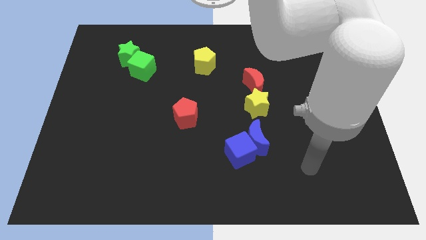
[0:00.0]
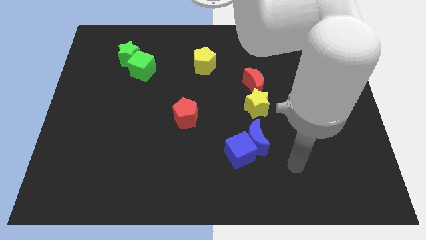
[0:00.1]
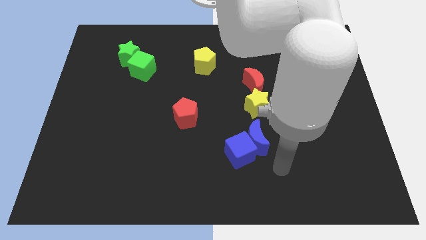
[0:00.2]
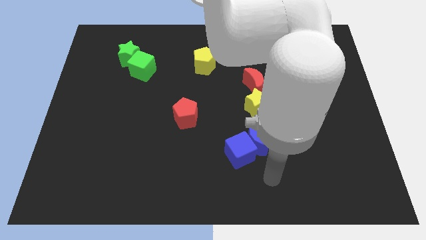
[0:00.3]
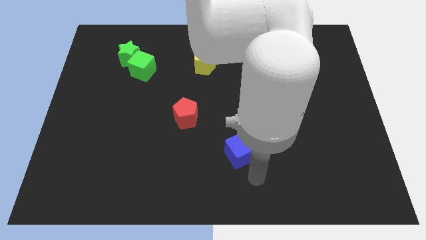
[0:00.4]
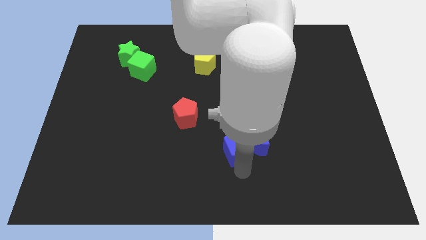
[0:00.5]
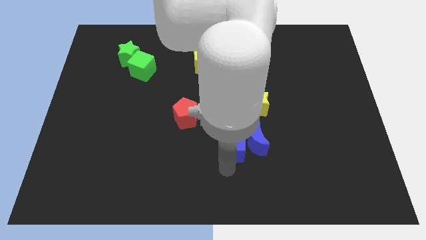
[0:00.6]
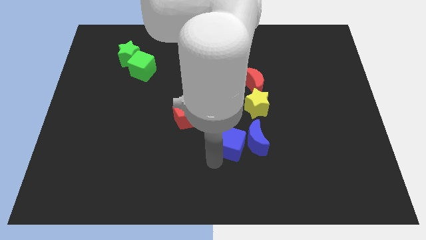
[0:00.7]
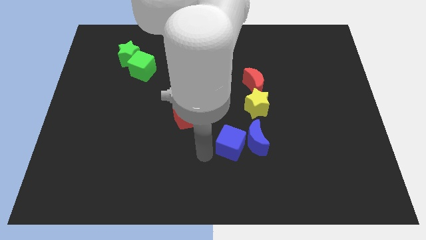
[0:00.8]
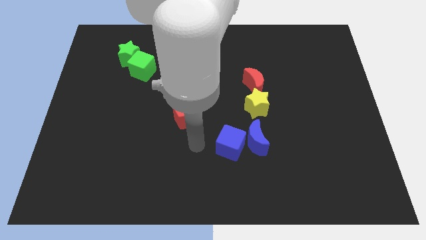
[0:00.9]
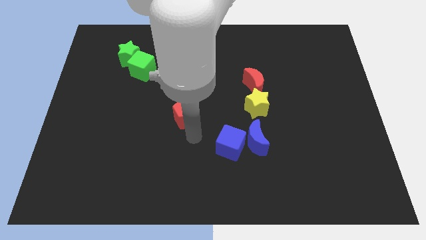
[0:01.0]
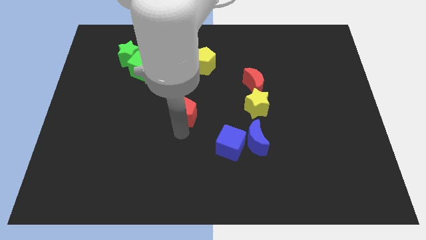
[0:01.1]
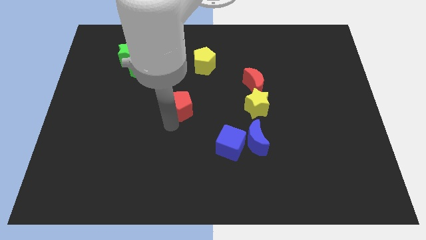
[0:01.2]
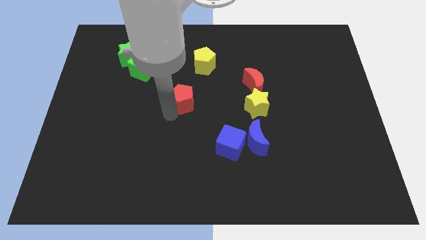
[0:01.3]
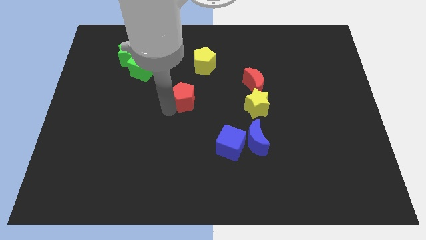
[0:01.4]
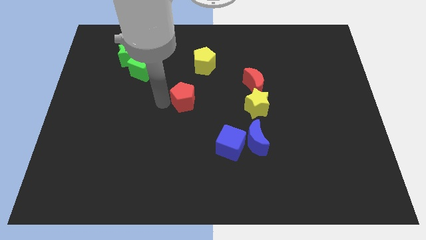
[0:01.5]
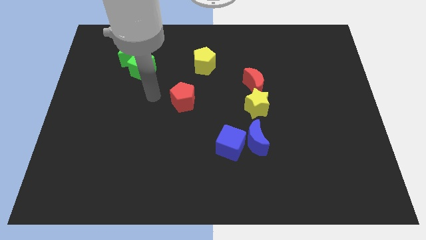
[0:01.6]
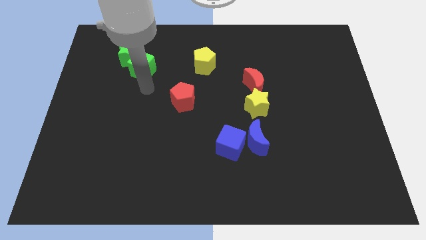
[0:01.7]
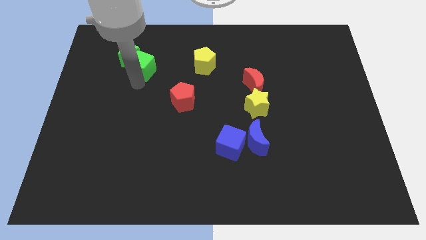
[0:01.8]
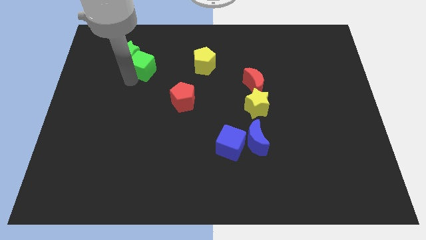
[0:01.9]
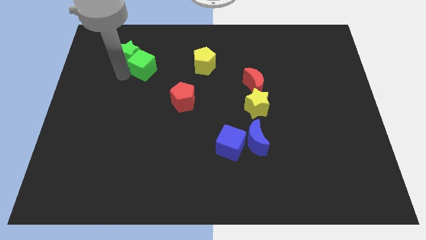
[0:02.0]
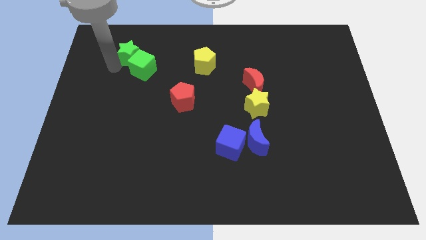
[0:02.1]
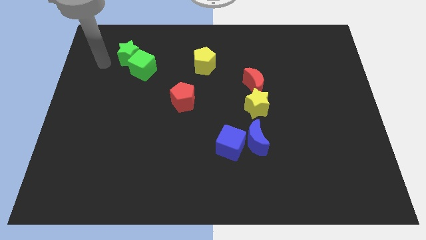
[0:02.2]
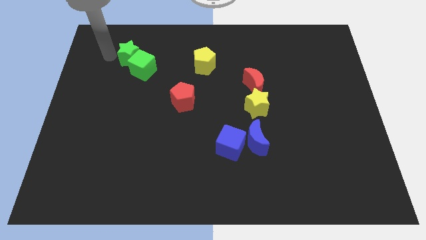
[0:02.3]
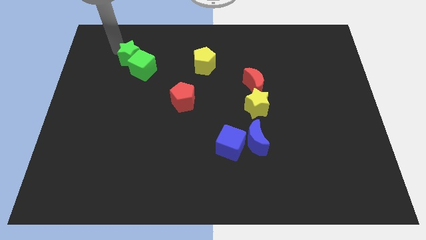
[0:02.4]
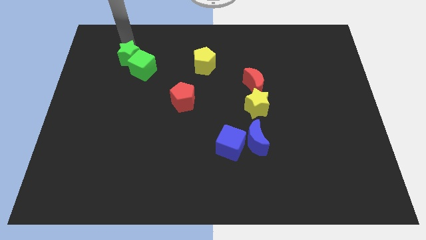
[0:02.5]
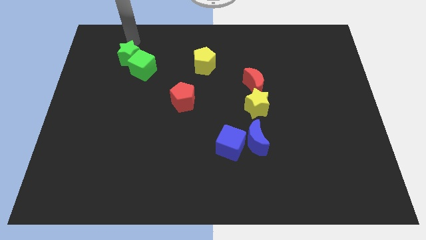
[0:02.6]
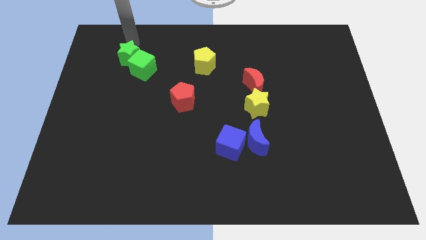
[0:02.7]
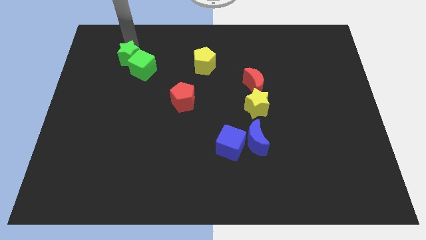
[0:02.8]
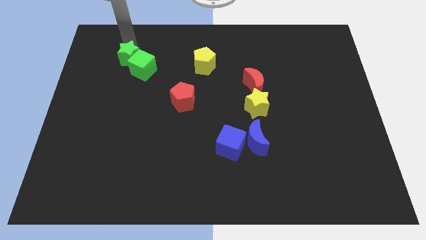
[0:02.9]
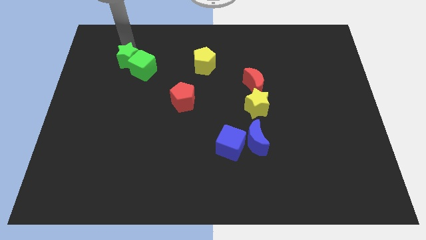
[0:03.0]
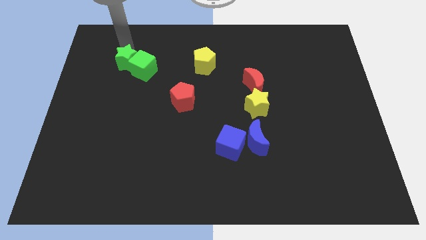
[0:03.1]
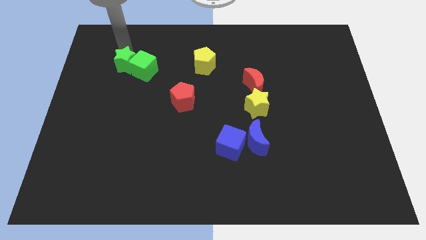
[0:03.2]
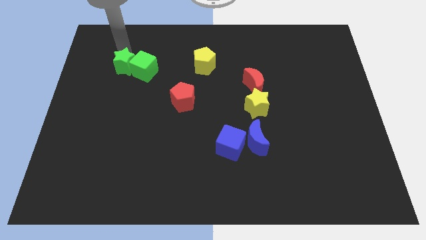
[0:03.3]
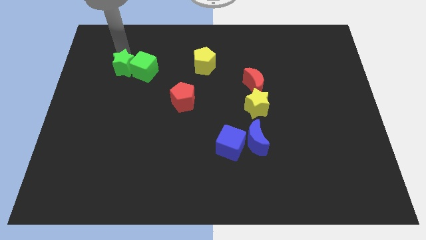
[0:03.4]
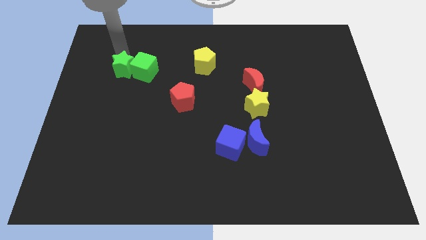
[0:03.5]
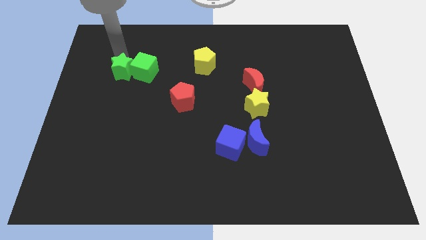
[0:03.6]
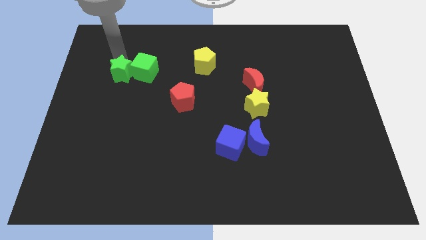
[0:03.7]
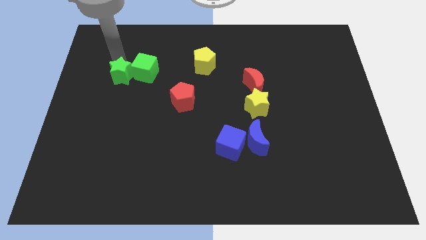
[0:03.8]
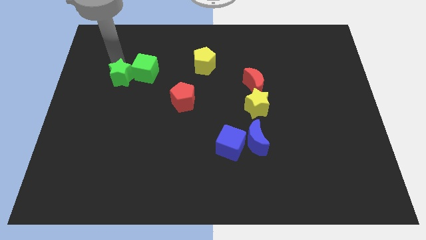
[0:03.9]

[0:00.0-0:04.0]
slightly move the green star down

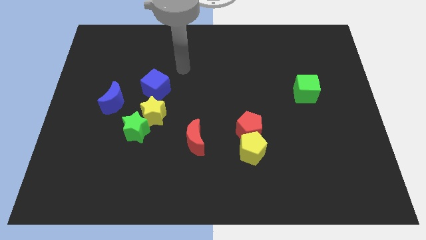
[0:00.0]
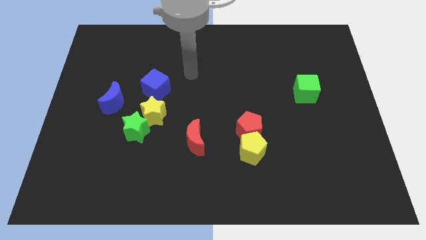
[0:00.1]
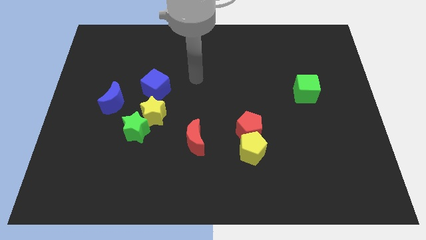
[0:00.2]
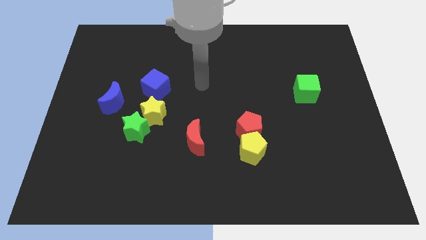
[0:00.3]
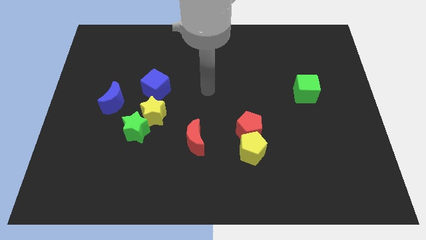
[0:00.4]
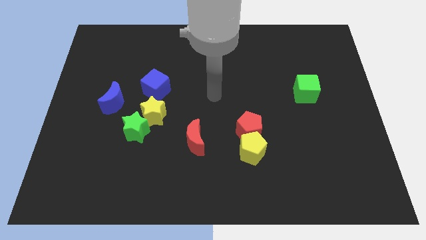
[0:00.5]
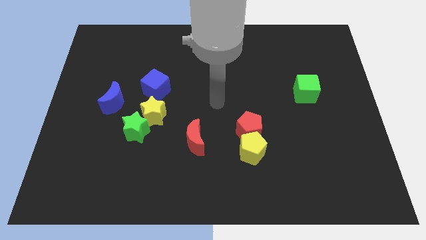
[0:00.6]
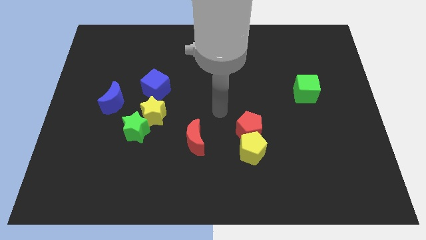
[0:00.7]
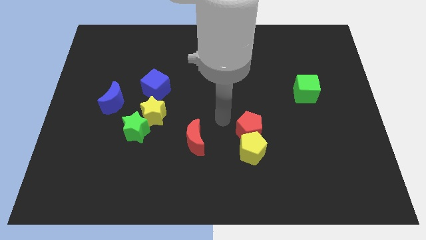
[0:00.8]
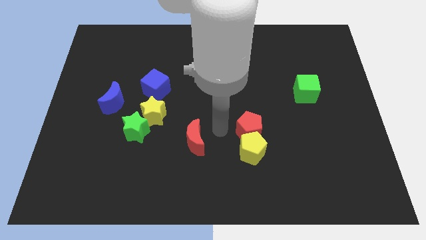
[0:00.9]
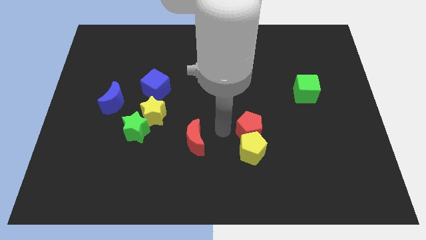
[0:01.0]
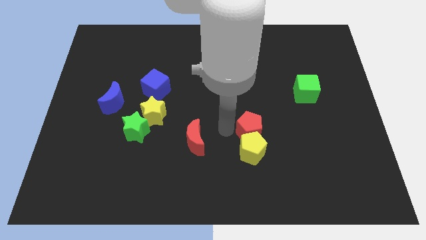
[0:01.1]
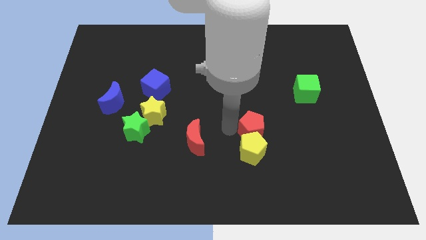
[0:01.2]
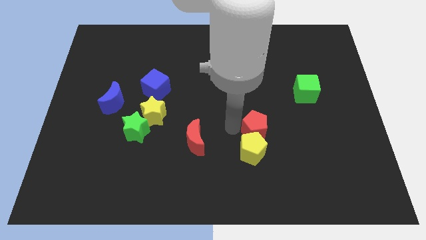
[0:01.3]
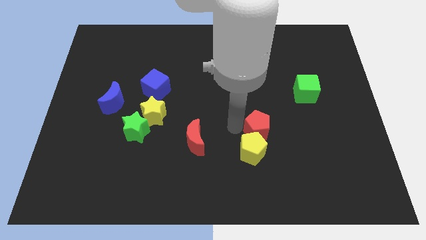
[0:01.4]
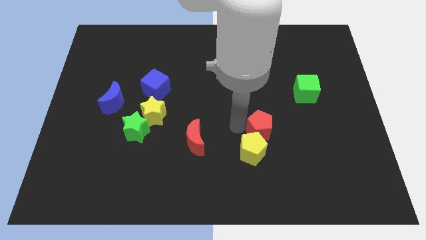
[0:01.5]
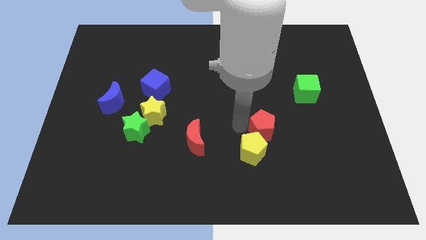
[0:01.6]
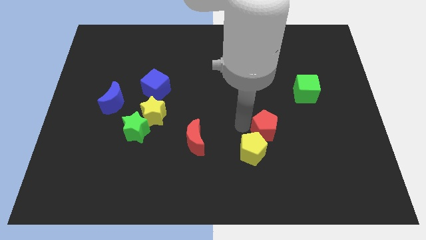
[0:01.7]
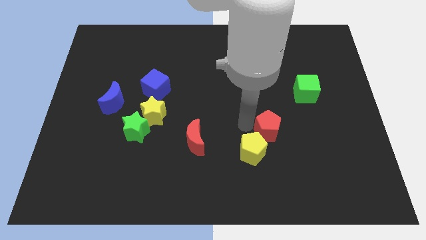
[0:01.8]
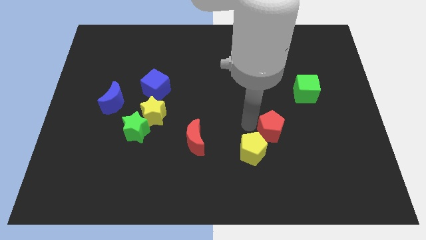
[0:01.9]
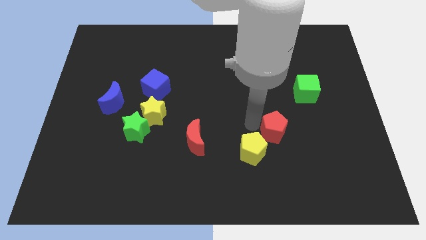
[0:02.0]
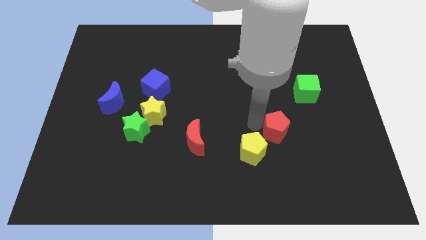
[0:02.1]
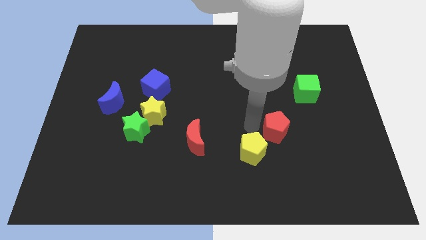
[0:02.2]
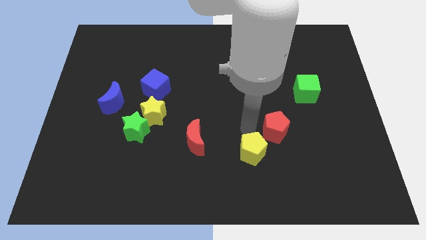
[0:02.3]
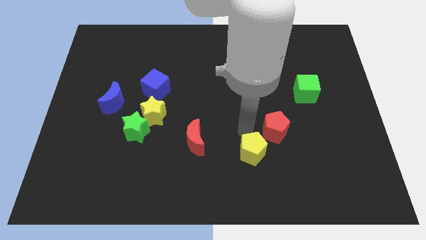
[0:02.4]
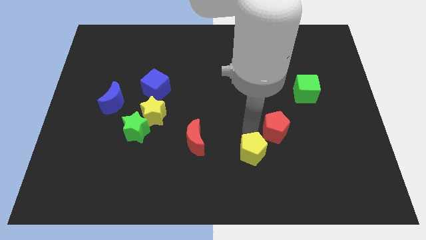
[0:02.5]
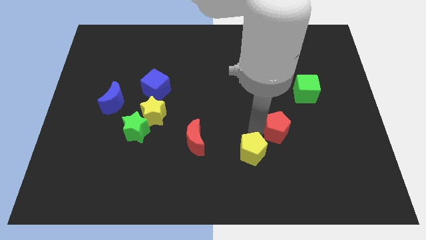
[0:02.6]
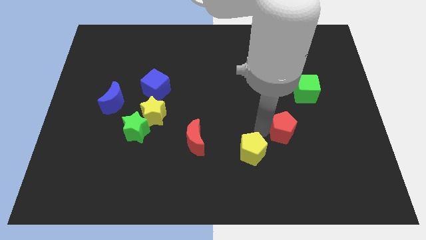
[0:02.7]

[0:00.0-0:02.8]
slightly move the red pentagon to the right

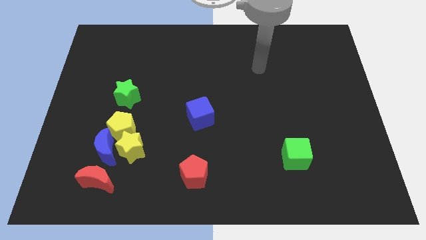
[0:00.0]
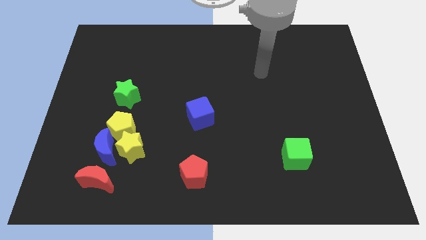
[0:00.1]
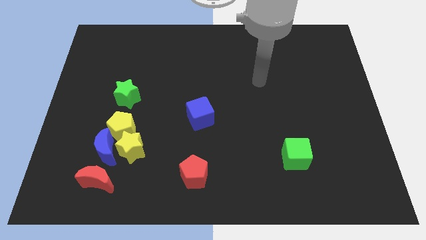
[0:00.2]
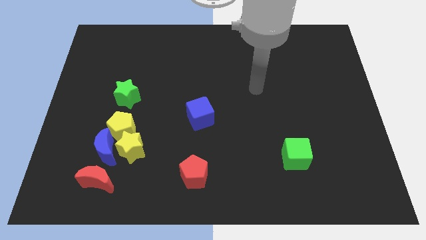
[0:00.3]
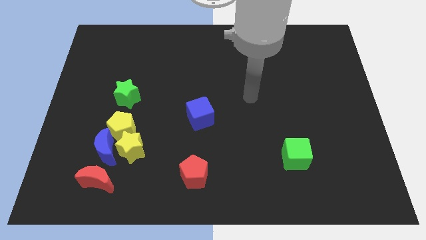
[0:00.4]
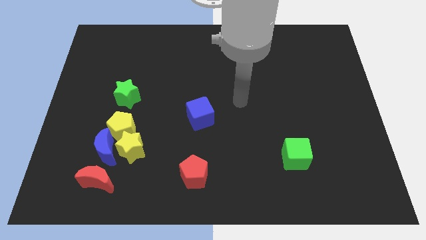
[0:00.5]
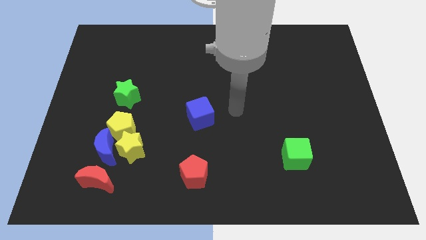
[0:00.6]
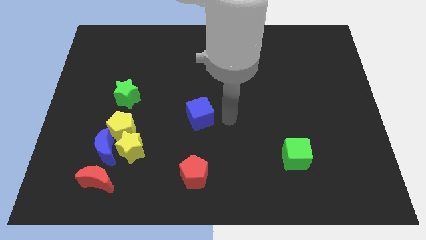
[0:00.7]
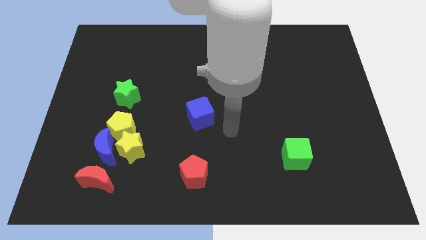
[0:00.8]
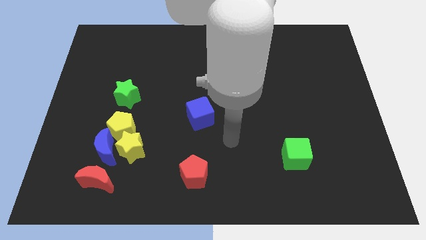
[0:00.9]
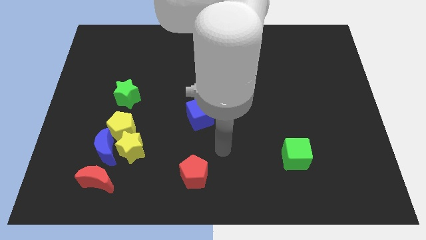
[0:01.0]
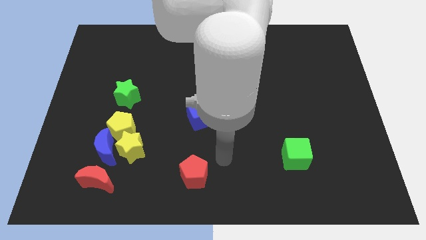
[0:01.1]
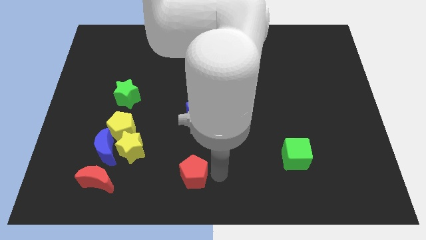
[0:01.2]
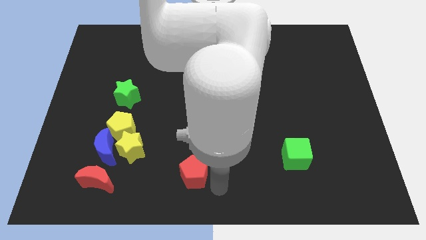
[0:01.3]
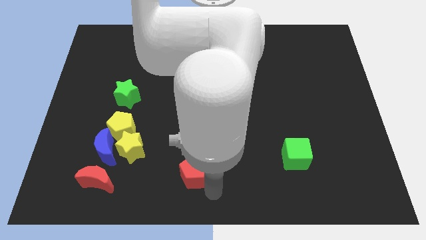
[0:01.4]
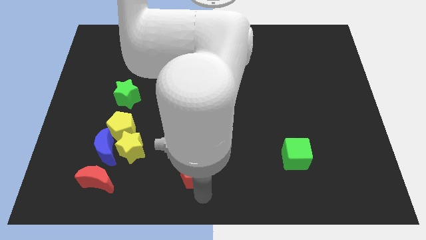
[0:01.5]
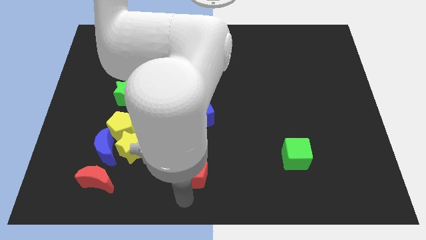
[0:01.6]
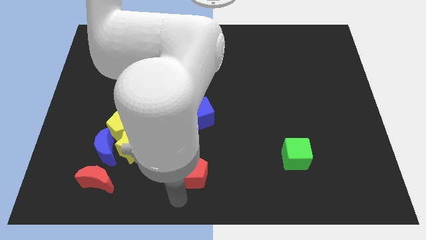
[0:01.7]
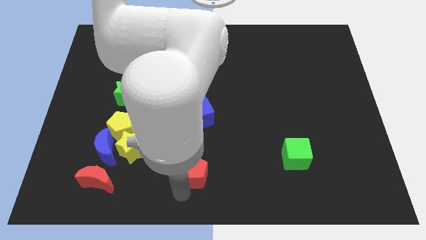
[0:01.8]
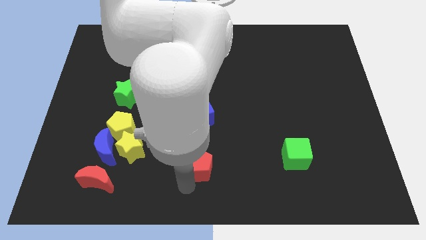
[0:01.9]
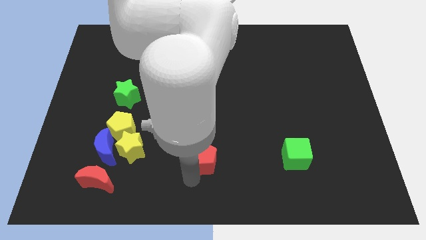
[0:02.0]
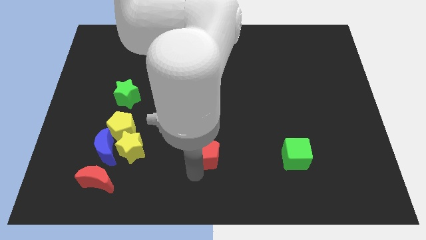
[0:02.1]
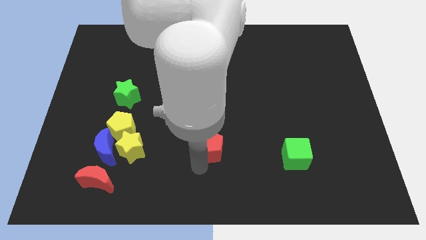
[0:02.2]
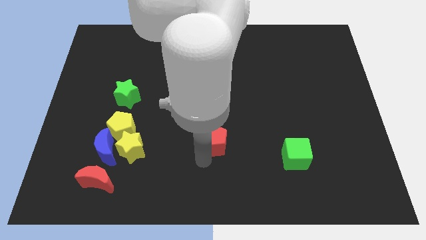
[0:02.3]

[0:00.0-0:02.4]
push the red pentagon a bit up
